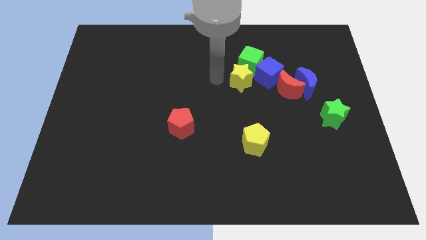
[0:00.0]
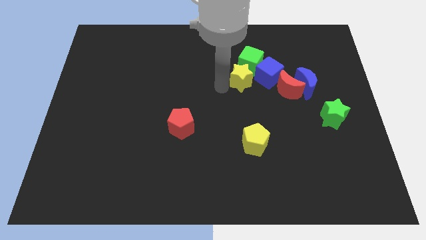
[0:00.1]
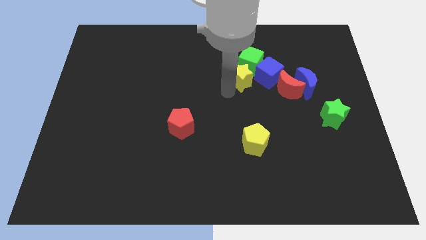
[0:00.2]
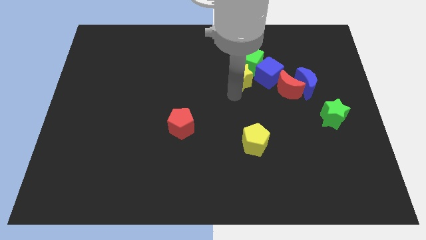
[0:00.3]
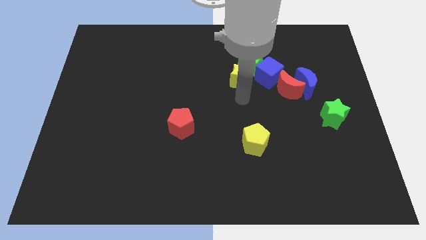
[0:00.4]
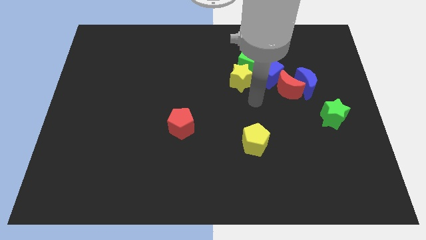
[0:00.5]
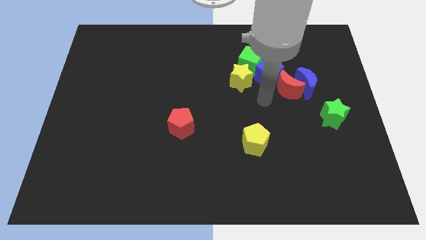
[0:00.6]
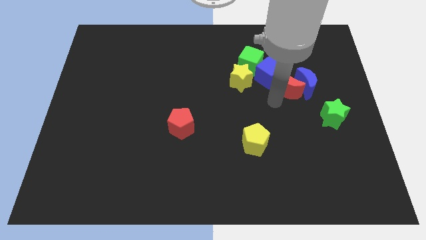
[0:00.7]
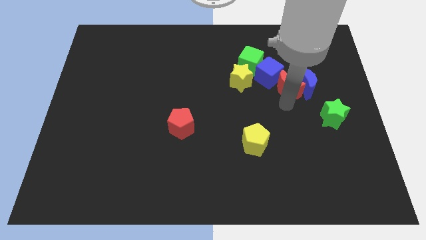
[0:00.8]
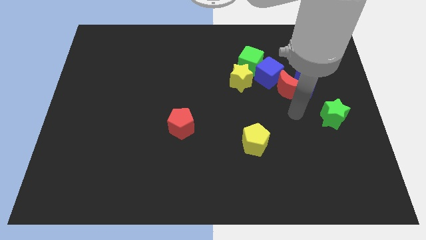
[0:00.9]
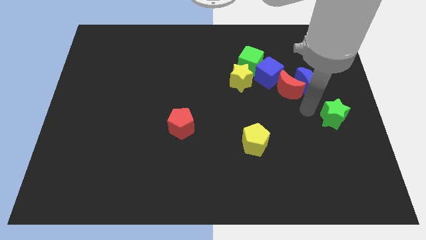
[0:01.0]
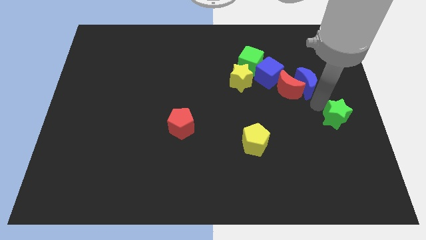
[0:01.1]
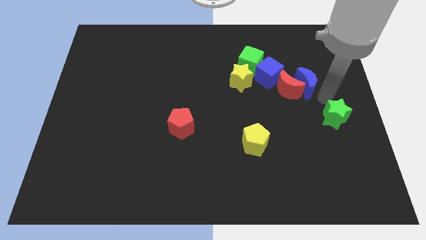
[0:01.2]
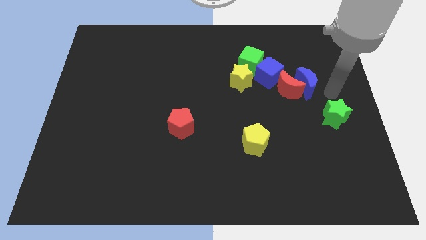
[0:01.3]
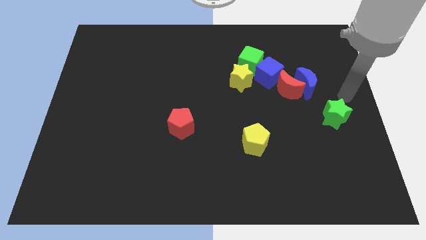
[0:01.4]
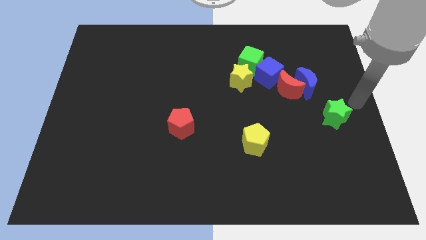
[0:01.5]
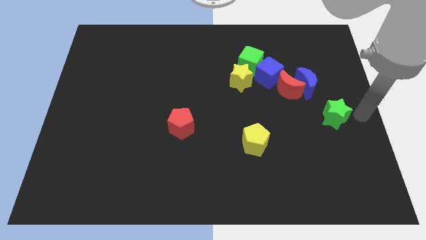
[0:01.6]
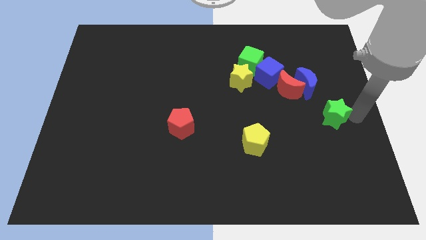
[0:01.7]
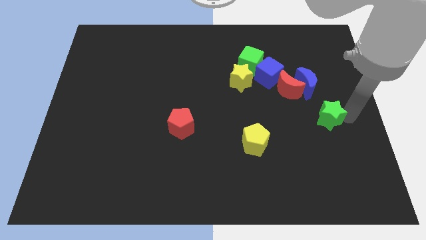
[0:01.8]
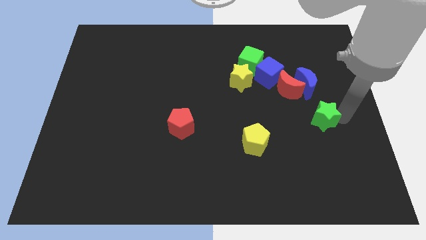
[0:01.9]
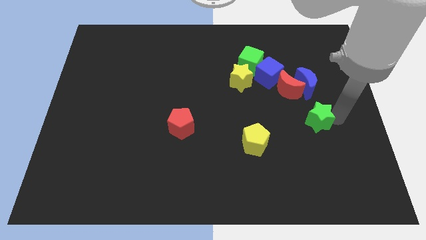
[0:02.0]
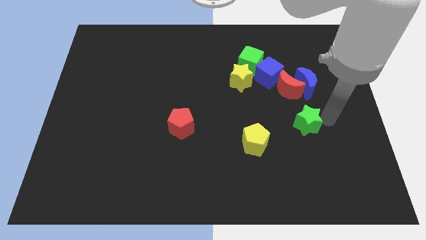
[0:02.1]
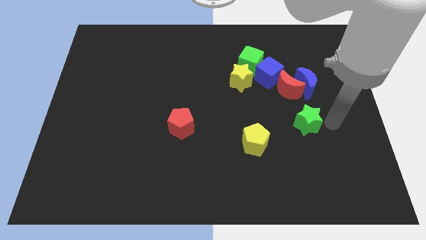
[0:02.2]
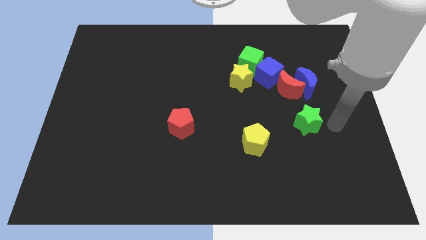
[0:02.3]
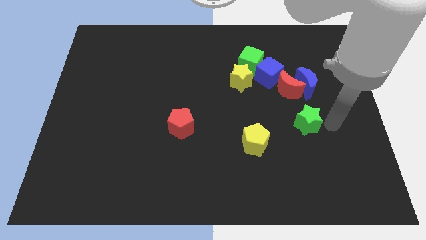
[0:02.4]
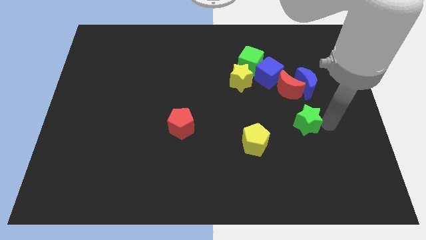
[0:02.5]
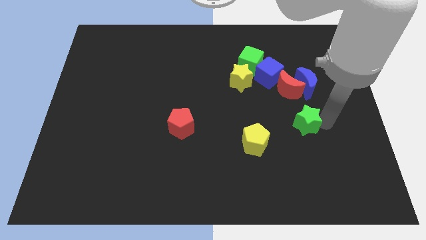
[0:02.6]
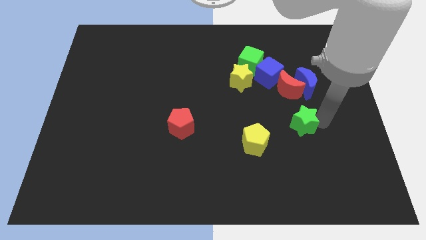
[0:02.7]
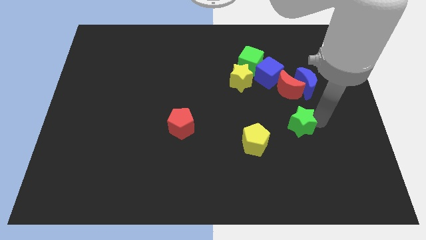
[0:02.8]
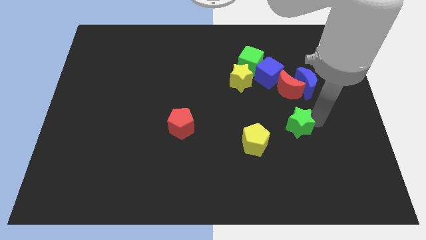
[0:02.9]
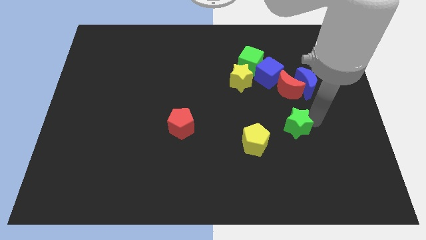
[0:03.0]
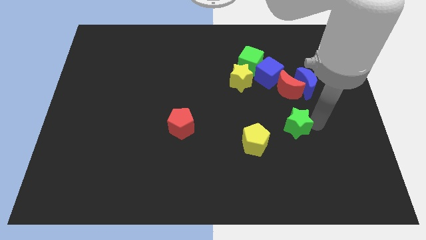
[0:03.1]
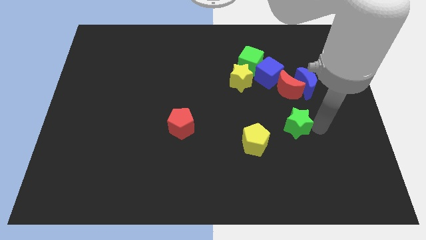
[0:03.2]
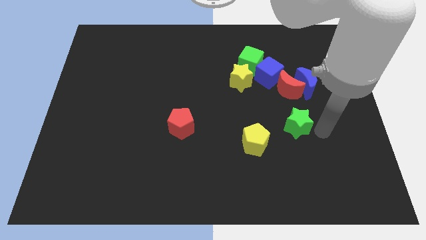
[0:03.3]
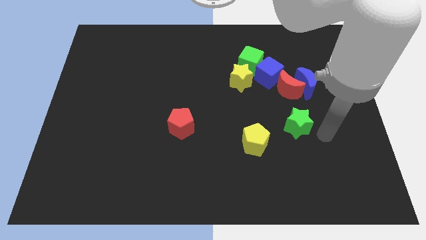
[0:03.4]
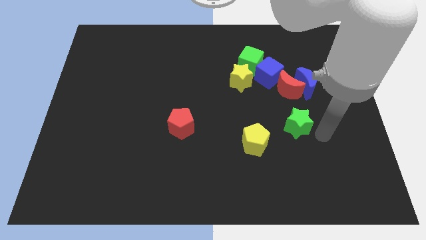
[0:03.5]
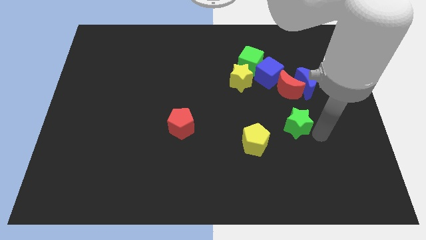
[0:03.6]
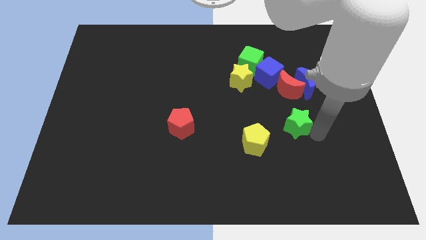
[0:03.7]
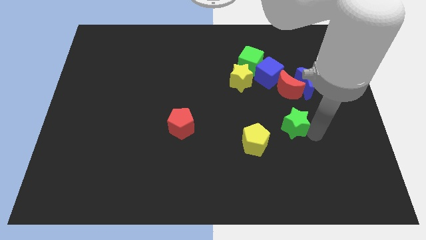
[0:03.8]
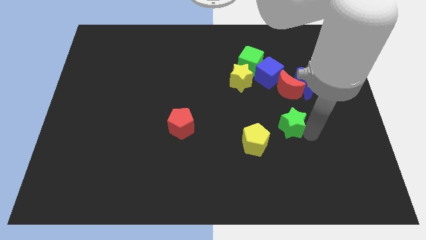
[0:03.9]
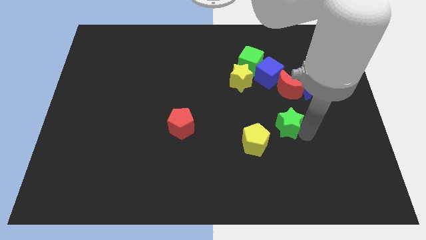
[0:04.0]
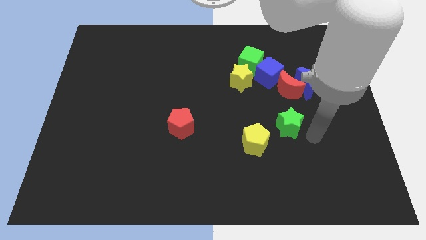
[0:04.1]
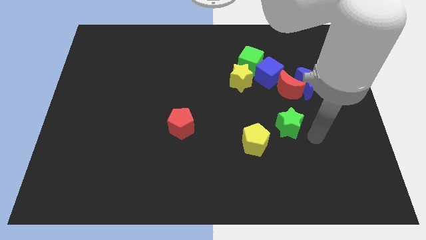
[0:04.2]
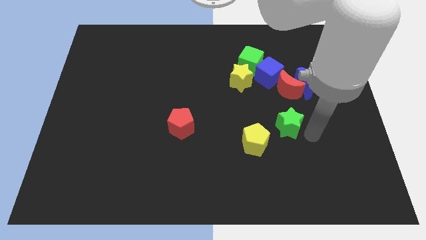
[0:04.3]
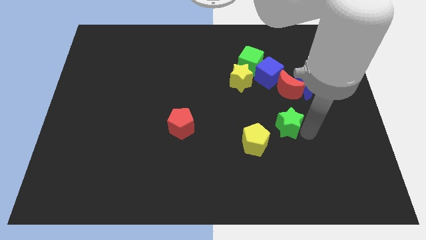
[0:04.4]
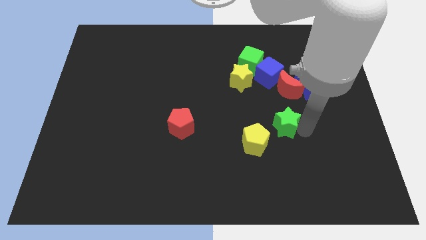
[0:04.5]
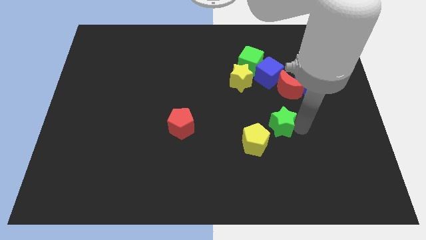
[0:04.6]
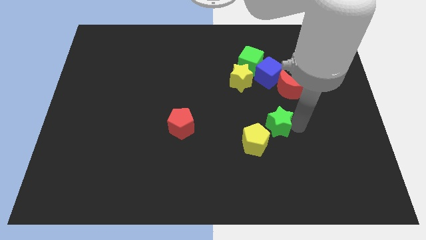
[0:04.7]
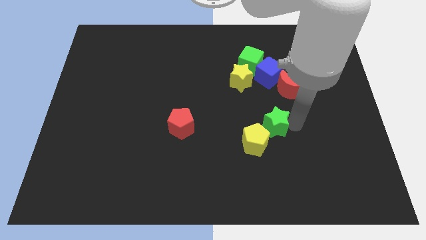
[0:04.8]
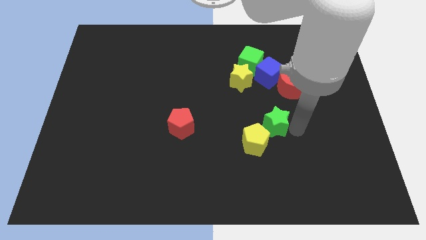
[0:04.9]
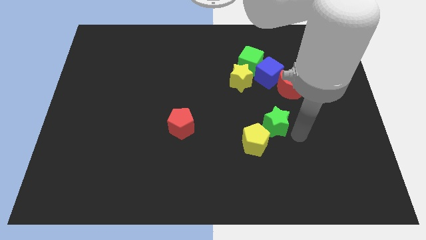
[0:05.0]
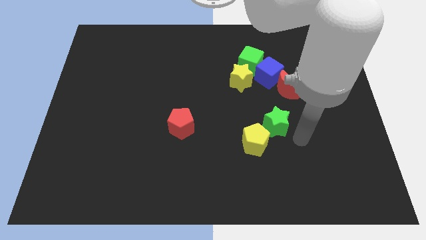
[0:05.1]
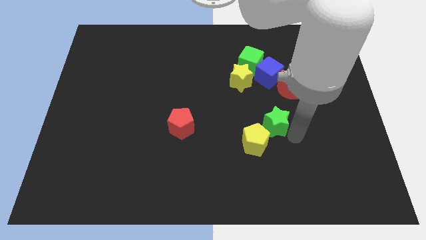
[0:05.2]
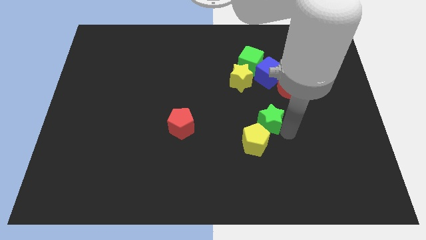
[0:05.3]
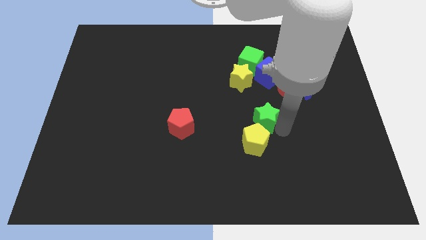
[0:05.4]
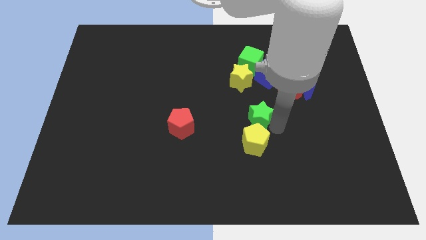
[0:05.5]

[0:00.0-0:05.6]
put the green star to the middle of the board

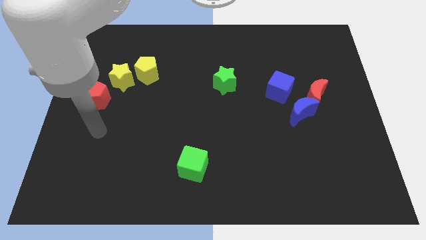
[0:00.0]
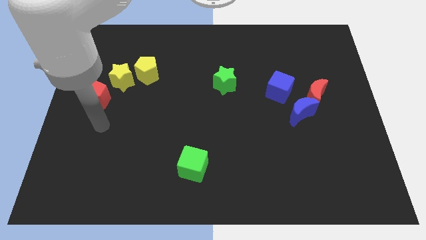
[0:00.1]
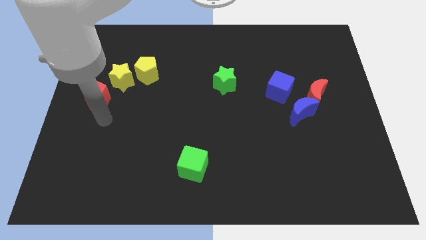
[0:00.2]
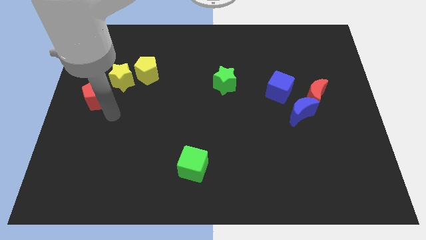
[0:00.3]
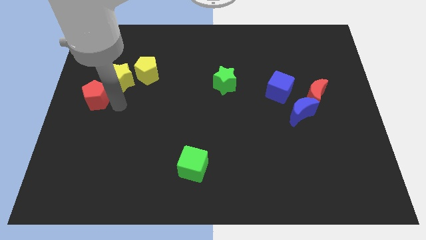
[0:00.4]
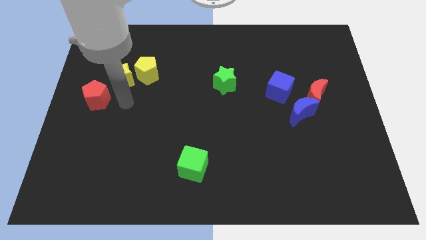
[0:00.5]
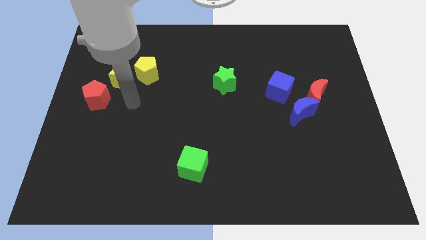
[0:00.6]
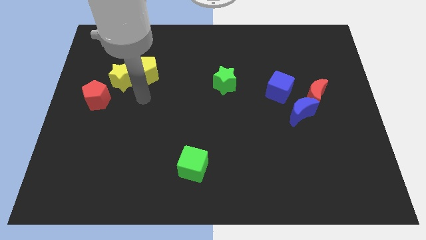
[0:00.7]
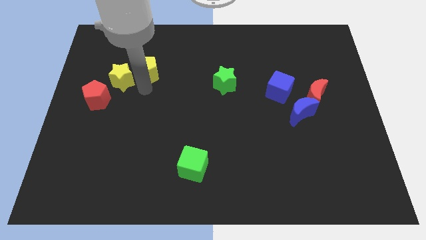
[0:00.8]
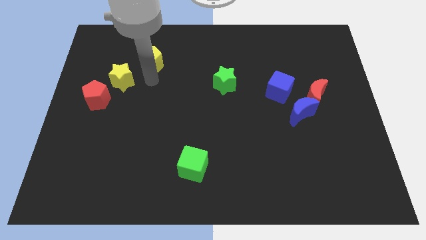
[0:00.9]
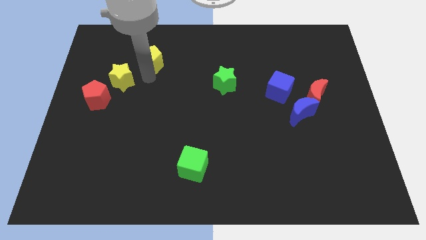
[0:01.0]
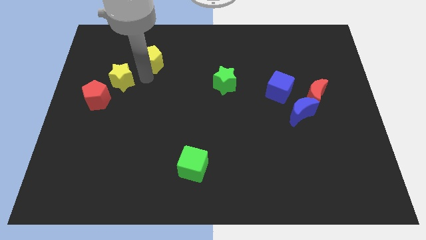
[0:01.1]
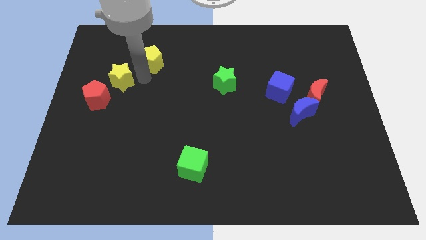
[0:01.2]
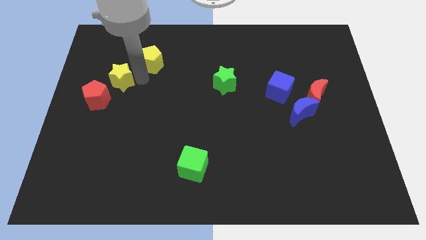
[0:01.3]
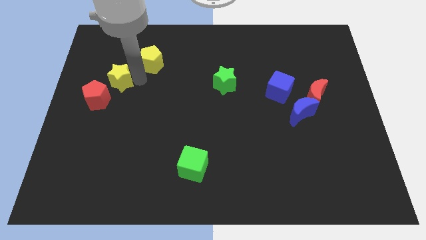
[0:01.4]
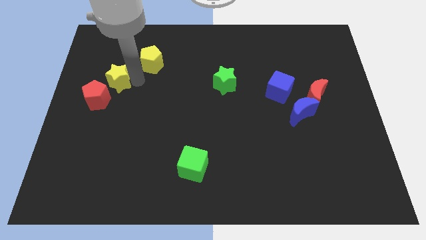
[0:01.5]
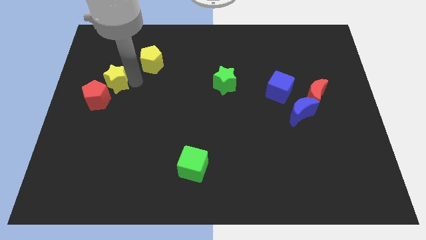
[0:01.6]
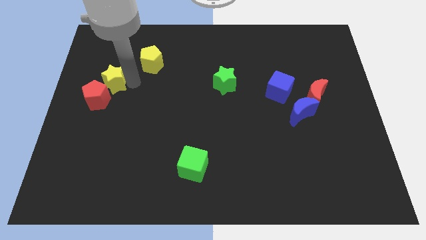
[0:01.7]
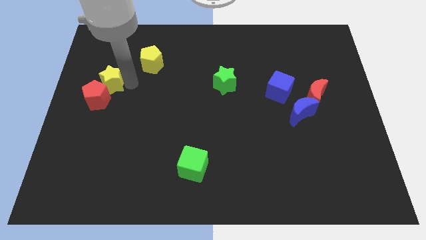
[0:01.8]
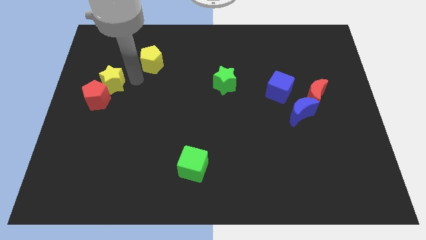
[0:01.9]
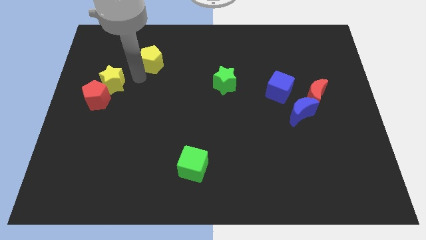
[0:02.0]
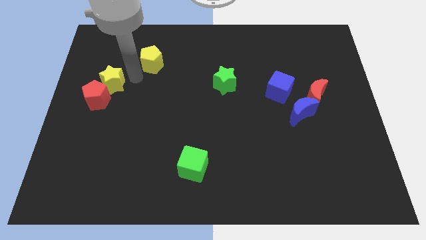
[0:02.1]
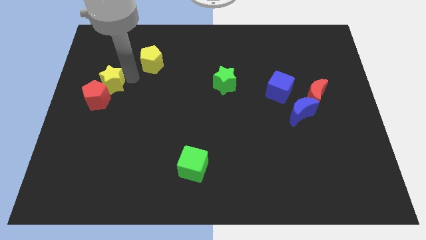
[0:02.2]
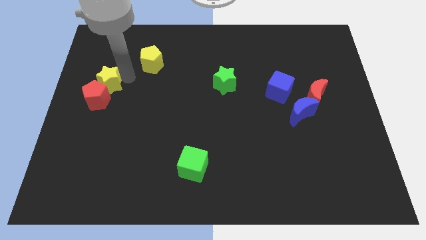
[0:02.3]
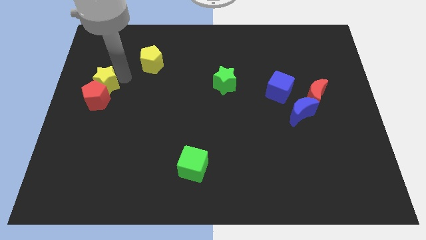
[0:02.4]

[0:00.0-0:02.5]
put the yellow star to the left side
